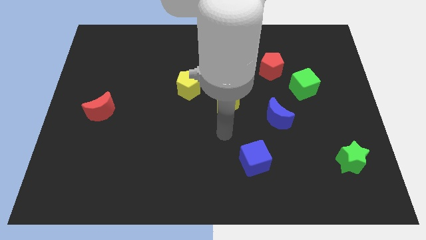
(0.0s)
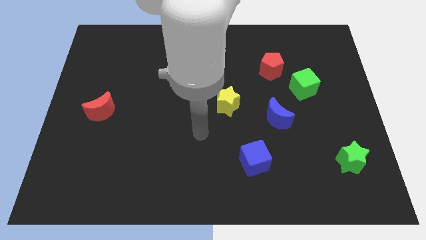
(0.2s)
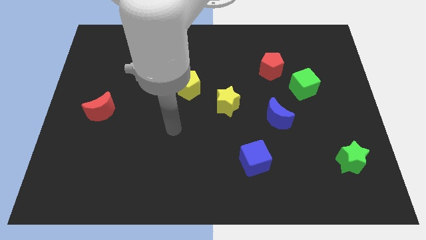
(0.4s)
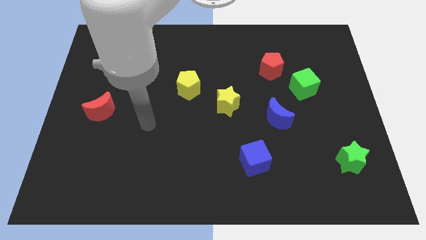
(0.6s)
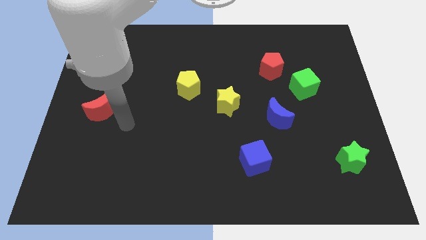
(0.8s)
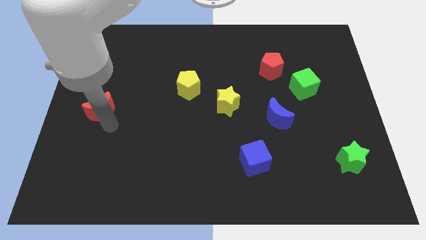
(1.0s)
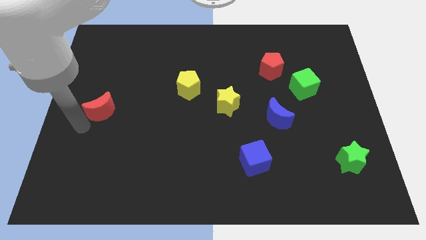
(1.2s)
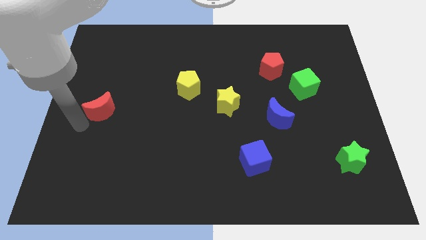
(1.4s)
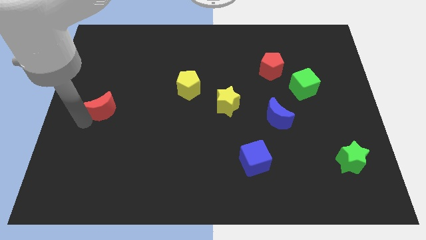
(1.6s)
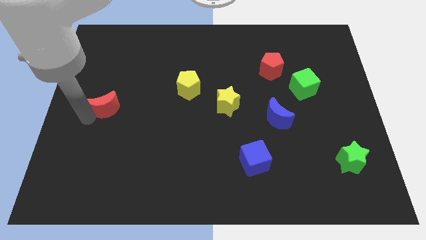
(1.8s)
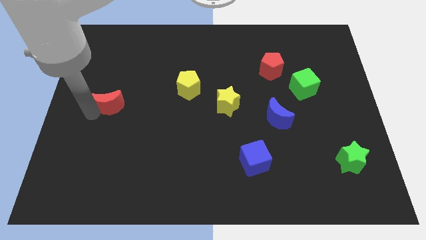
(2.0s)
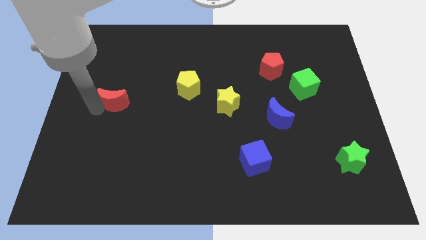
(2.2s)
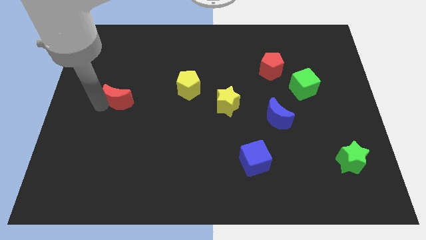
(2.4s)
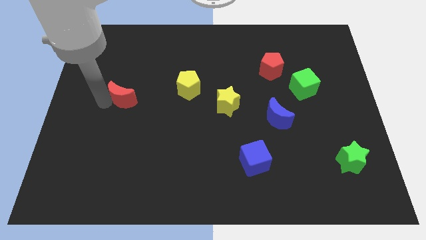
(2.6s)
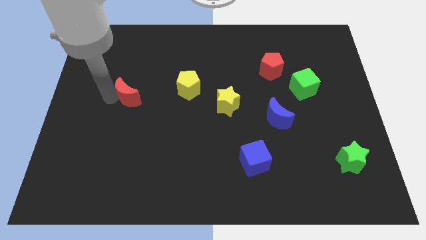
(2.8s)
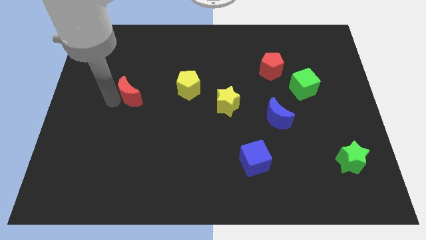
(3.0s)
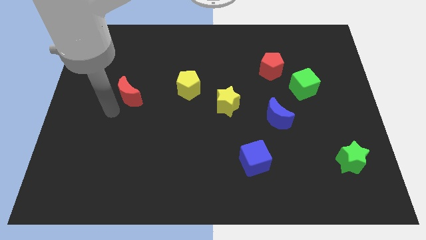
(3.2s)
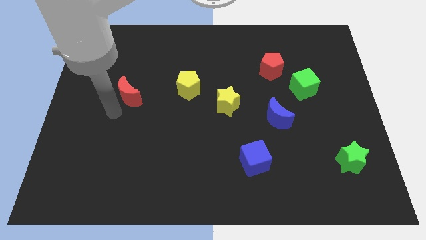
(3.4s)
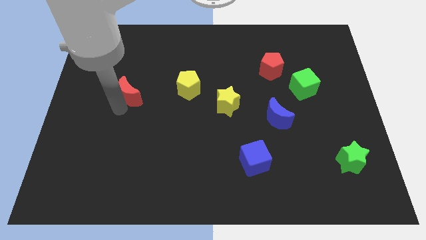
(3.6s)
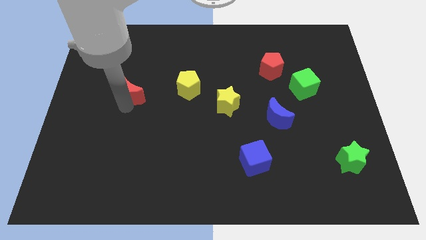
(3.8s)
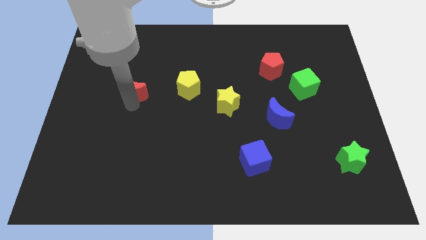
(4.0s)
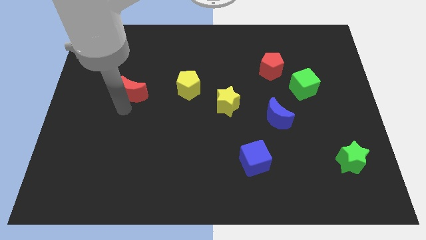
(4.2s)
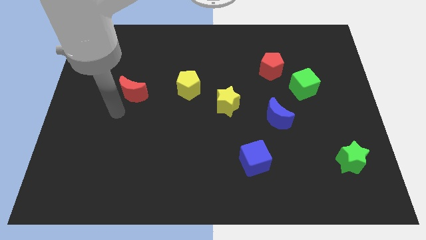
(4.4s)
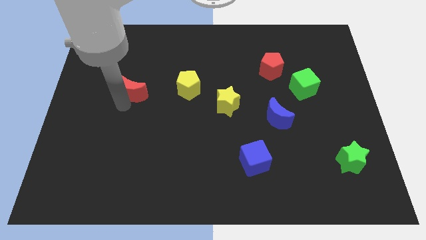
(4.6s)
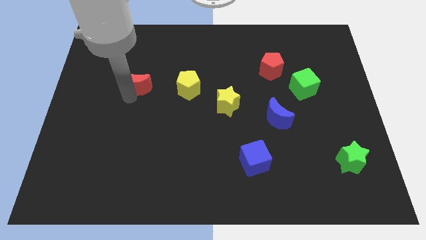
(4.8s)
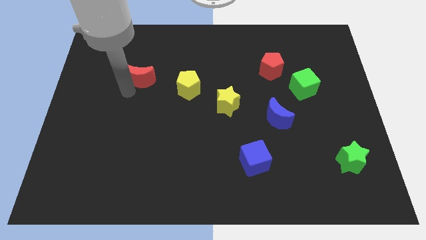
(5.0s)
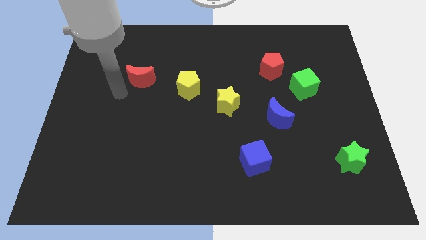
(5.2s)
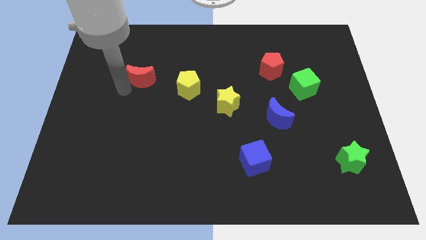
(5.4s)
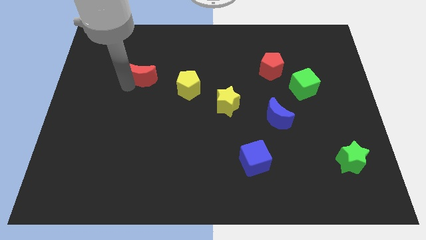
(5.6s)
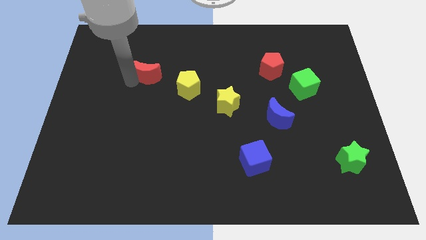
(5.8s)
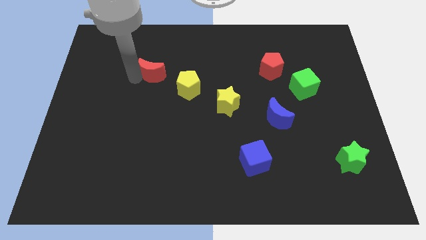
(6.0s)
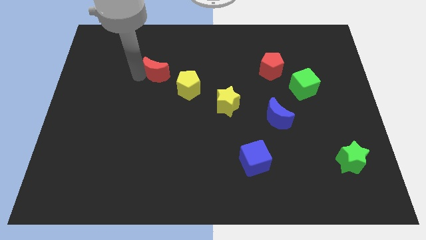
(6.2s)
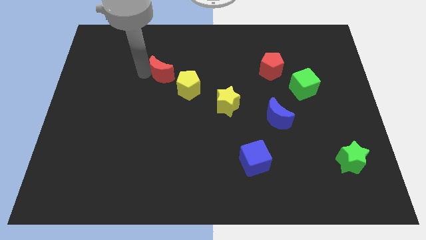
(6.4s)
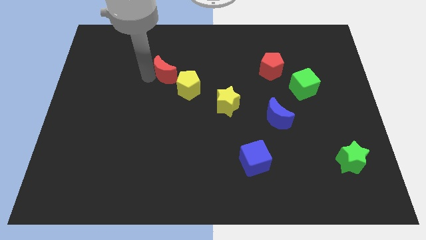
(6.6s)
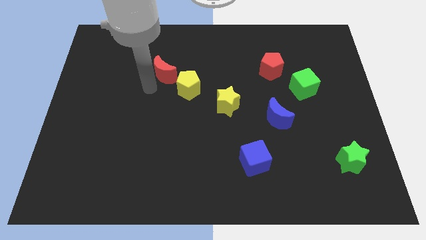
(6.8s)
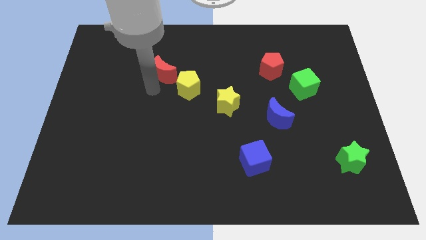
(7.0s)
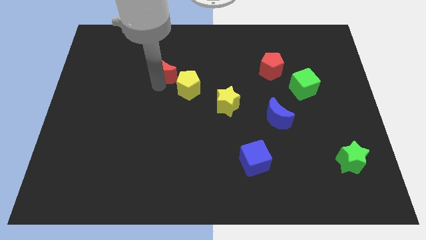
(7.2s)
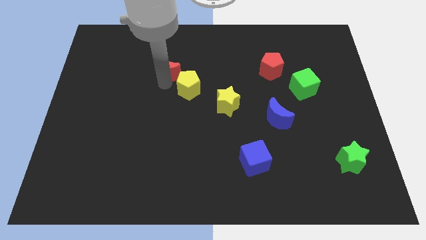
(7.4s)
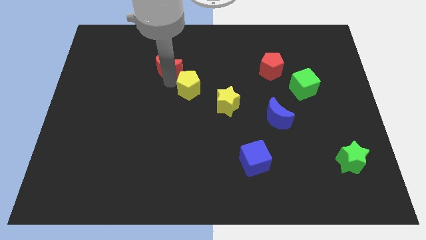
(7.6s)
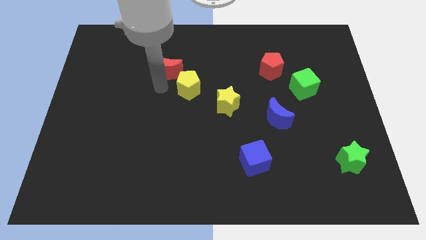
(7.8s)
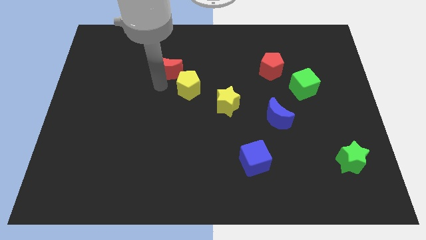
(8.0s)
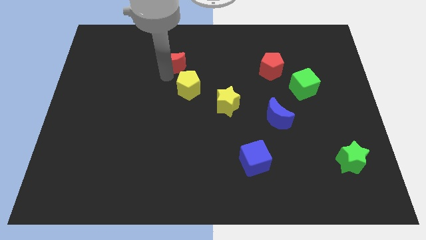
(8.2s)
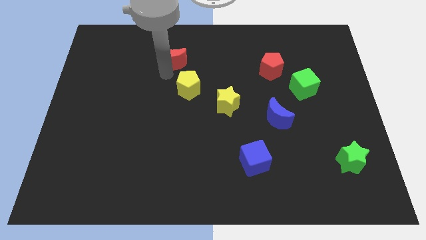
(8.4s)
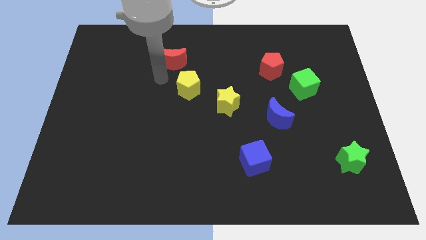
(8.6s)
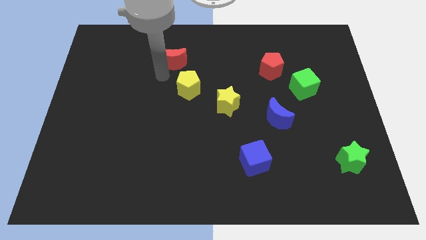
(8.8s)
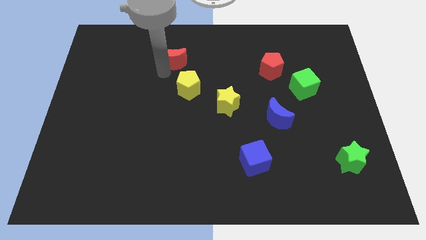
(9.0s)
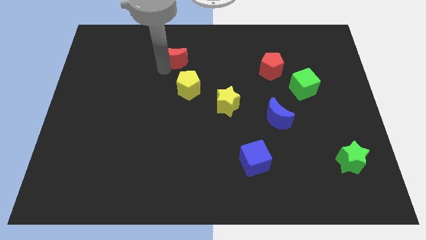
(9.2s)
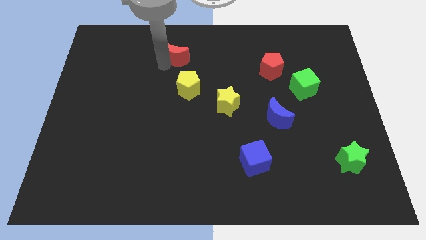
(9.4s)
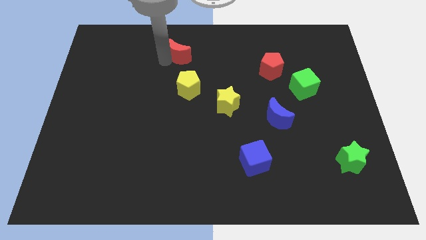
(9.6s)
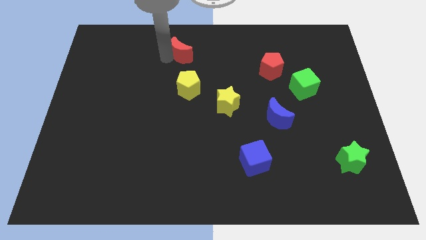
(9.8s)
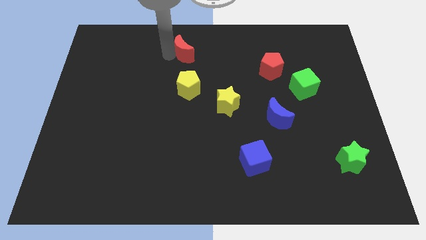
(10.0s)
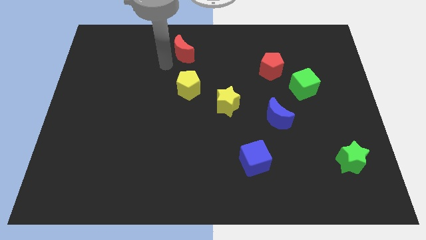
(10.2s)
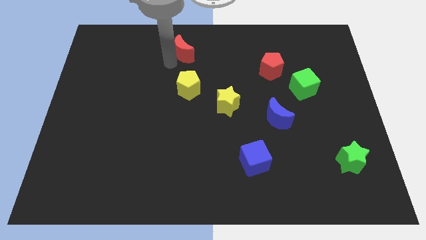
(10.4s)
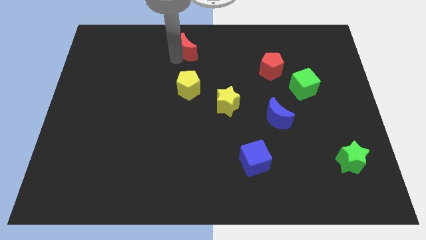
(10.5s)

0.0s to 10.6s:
slide the red moon to the towards your base
